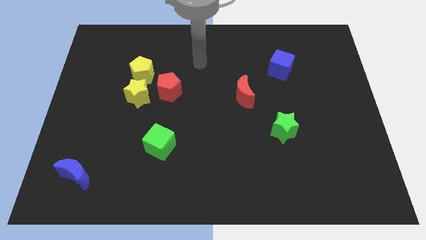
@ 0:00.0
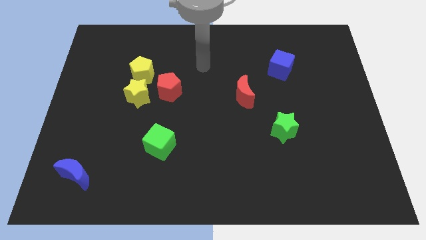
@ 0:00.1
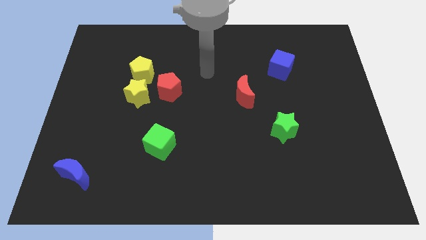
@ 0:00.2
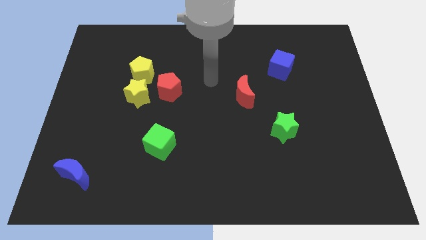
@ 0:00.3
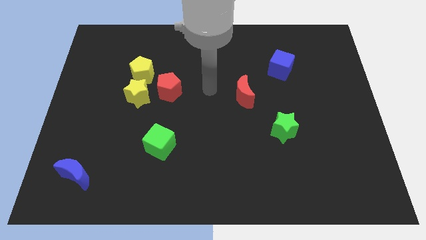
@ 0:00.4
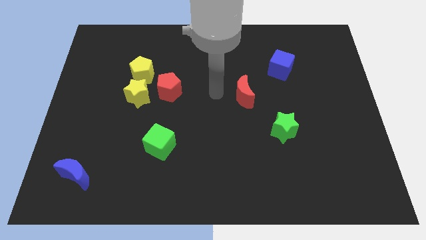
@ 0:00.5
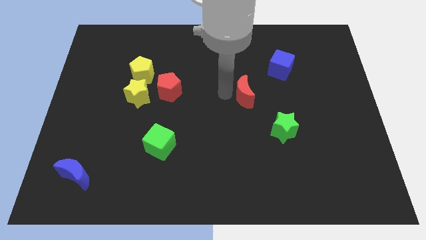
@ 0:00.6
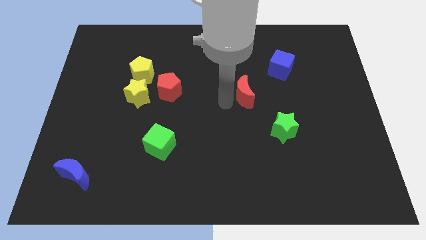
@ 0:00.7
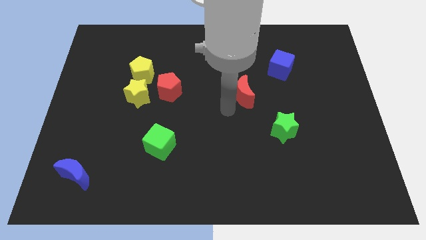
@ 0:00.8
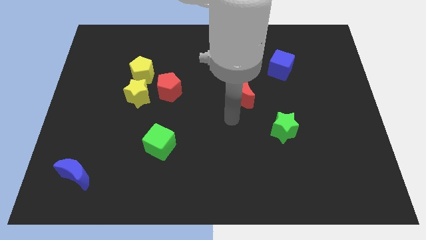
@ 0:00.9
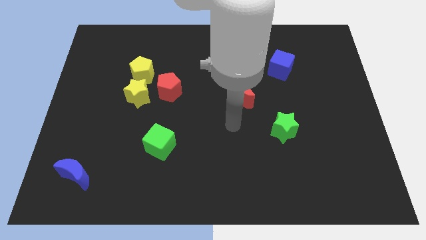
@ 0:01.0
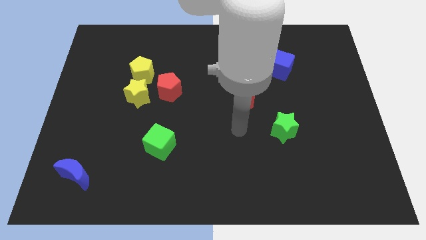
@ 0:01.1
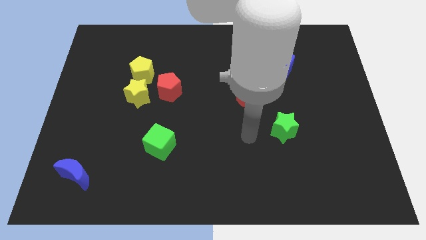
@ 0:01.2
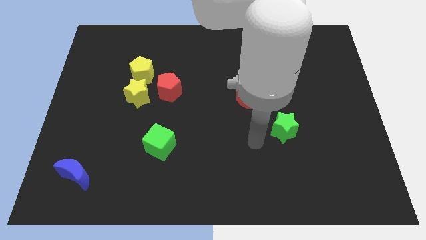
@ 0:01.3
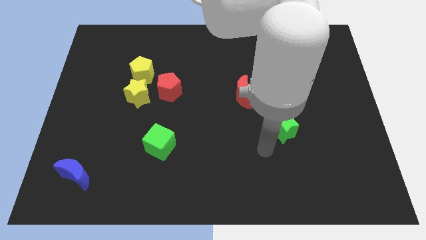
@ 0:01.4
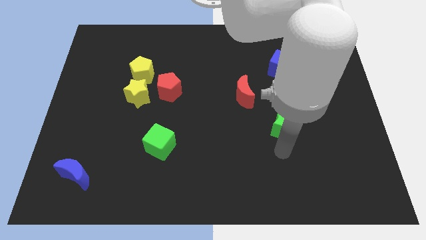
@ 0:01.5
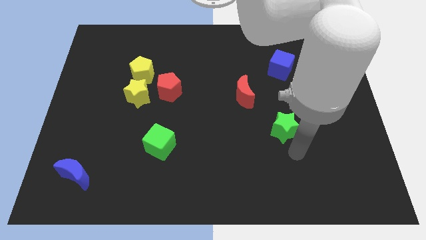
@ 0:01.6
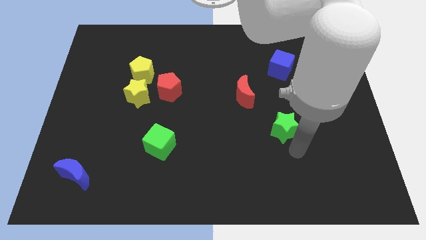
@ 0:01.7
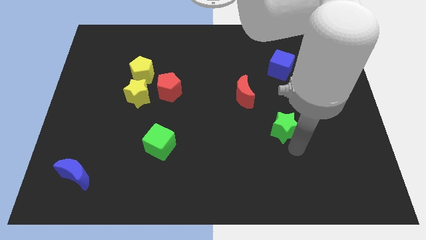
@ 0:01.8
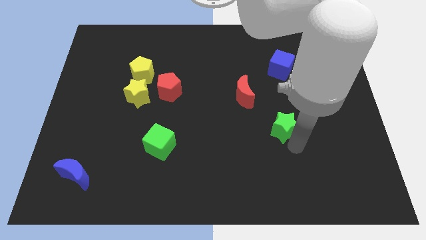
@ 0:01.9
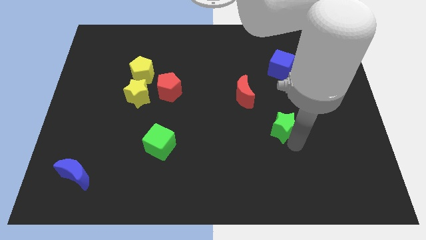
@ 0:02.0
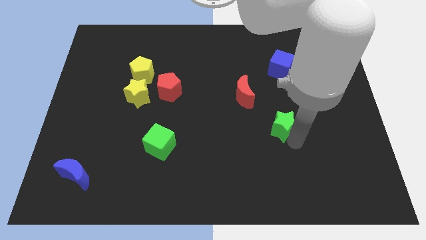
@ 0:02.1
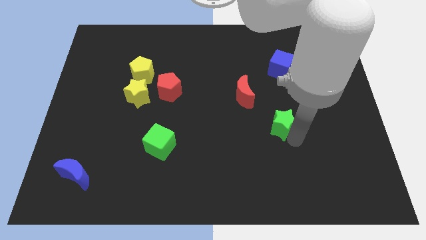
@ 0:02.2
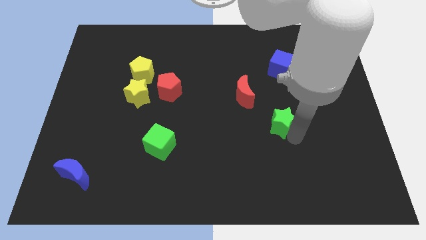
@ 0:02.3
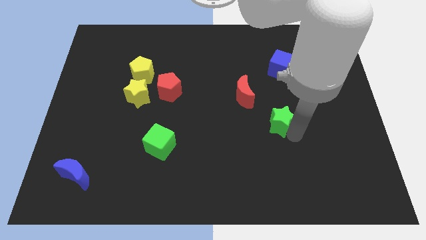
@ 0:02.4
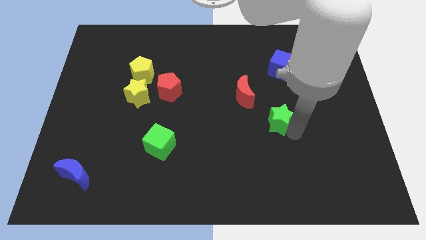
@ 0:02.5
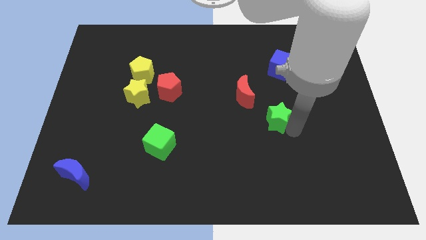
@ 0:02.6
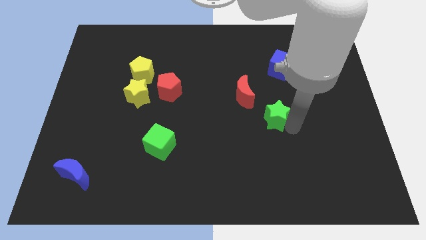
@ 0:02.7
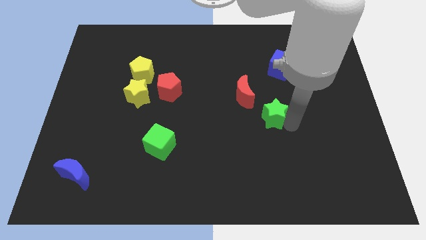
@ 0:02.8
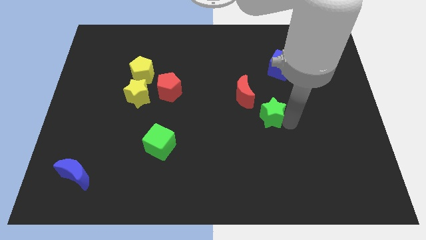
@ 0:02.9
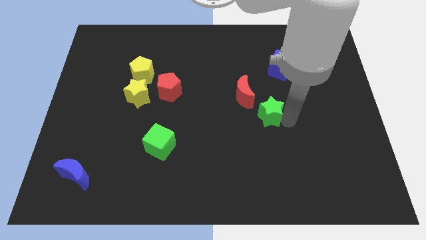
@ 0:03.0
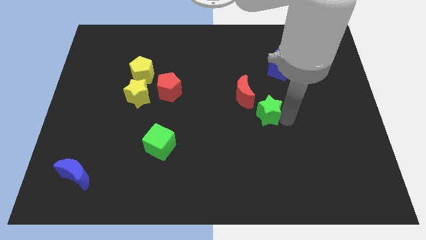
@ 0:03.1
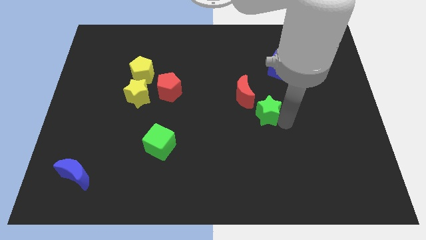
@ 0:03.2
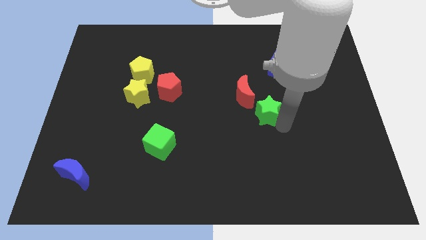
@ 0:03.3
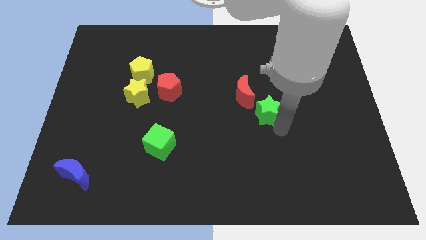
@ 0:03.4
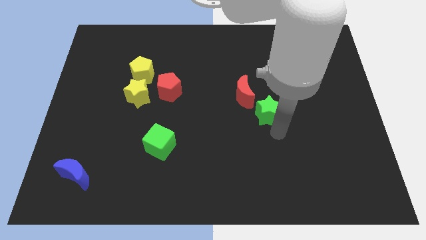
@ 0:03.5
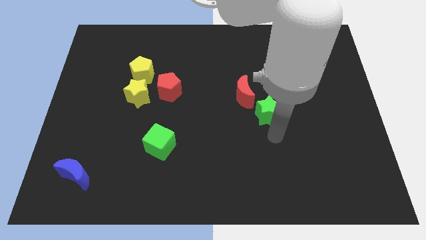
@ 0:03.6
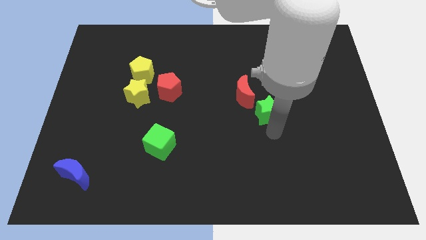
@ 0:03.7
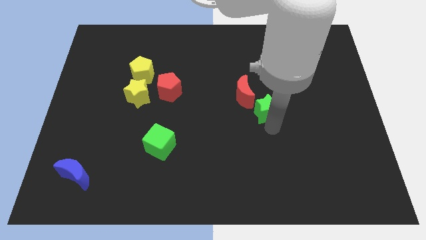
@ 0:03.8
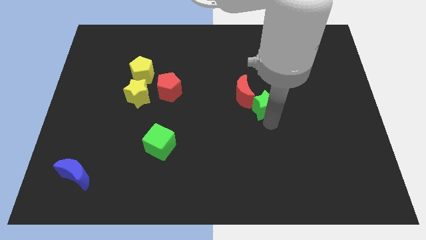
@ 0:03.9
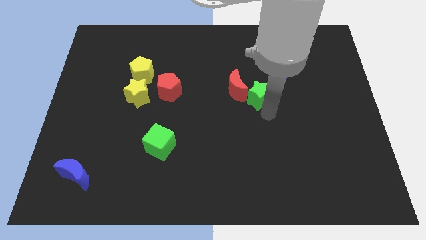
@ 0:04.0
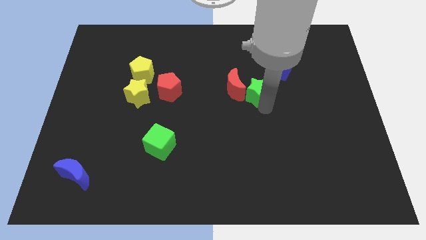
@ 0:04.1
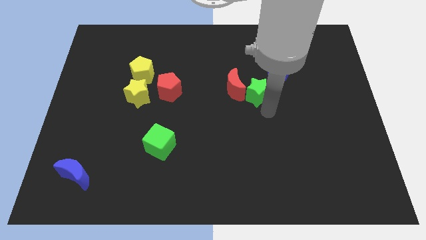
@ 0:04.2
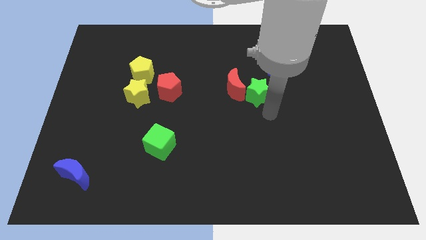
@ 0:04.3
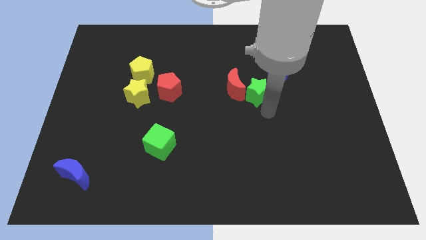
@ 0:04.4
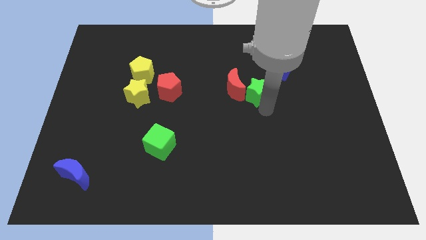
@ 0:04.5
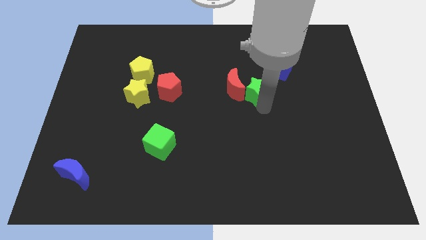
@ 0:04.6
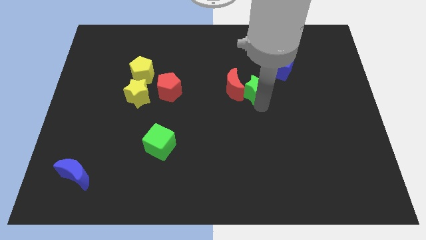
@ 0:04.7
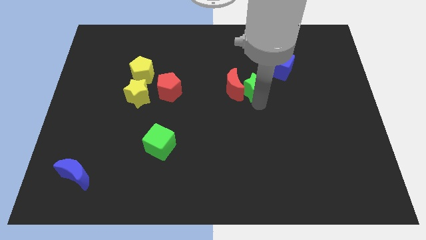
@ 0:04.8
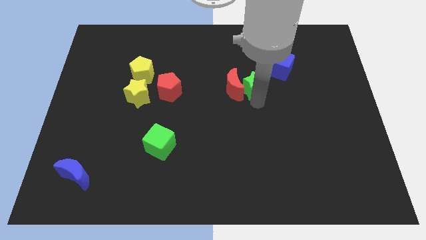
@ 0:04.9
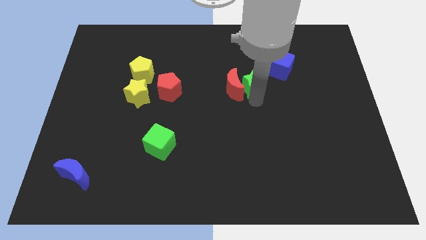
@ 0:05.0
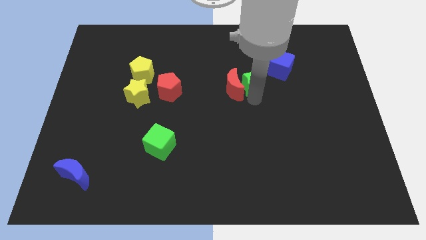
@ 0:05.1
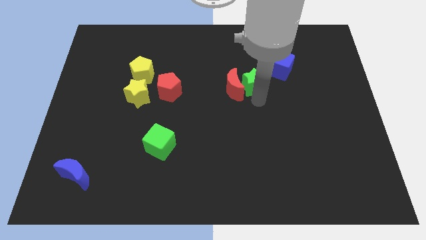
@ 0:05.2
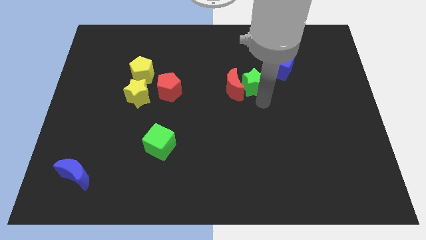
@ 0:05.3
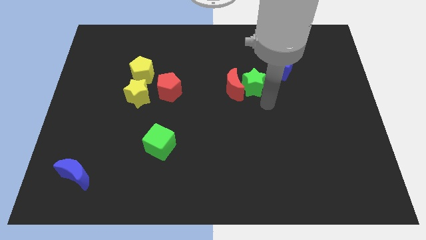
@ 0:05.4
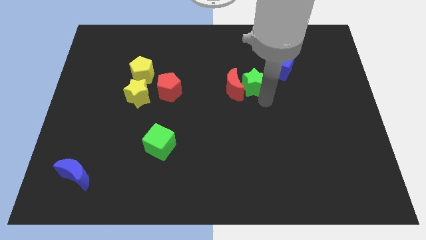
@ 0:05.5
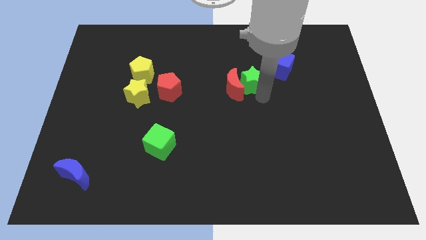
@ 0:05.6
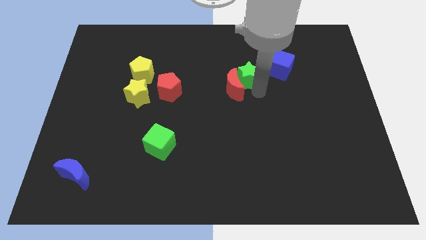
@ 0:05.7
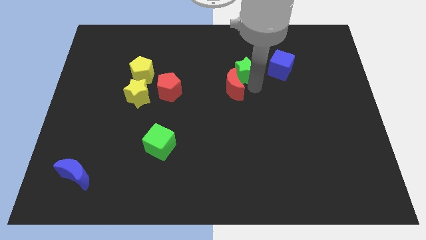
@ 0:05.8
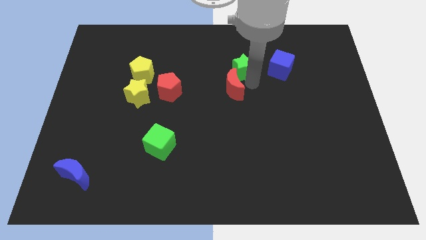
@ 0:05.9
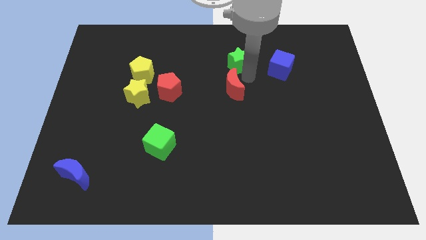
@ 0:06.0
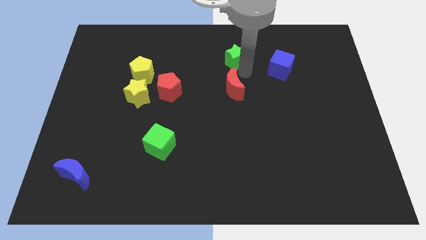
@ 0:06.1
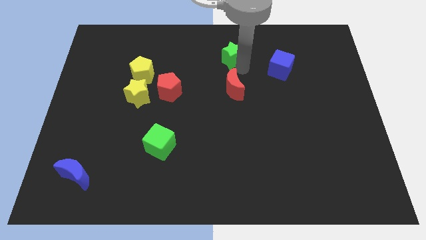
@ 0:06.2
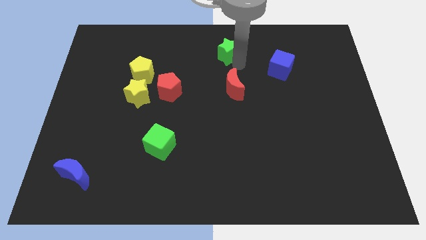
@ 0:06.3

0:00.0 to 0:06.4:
push the green star to the towards your base
